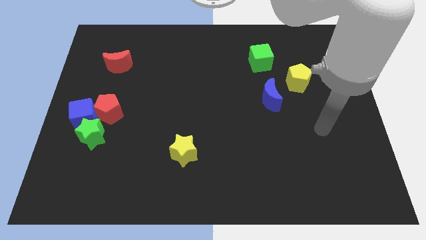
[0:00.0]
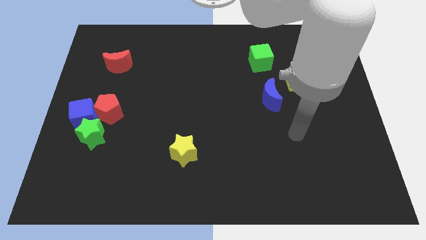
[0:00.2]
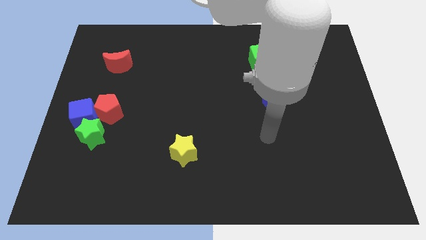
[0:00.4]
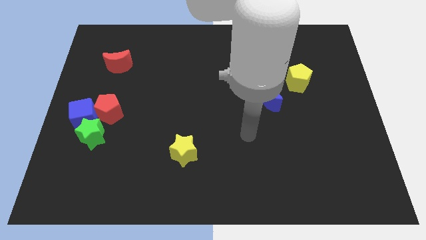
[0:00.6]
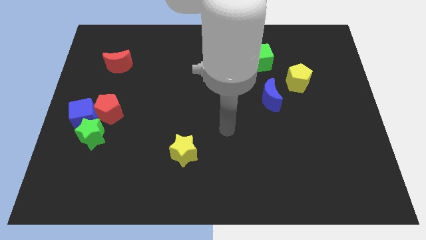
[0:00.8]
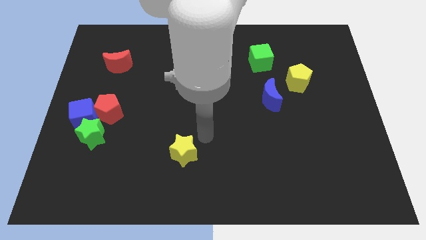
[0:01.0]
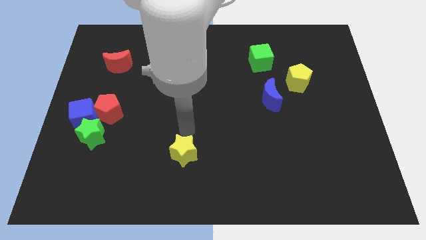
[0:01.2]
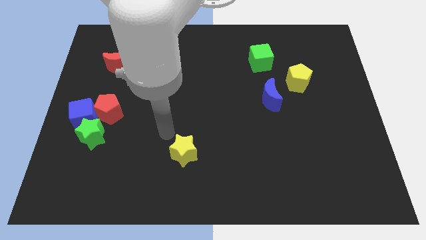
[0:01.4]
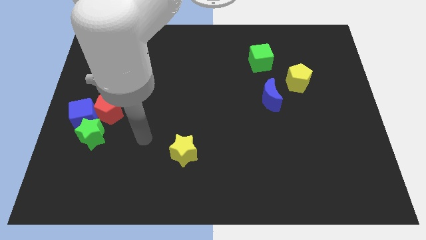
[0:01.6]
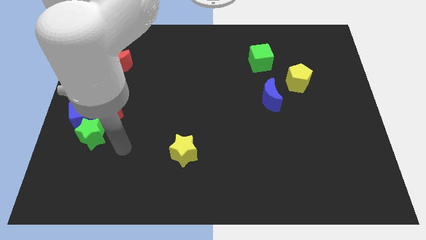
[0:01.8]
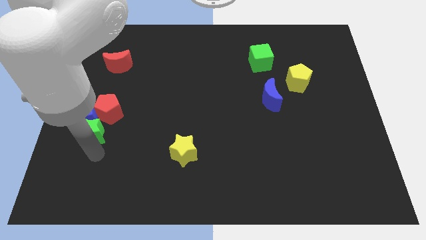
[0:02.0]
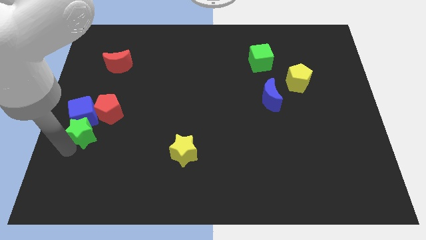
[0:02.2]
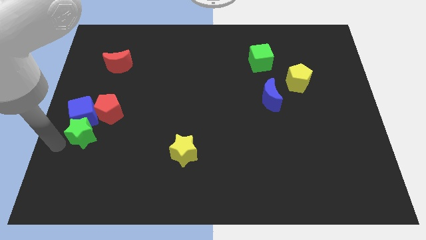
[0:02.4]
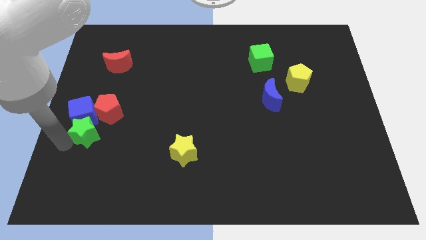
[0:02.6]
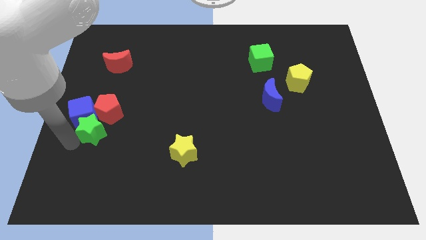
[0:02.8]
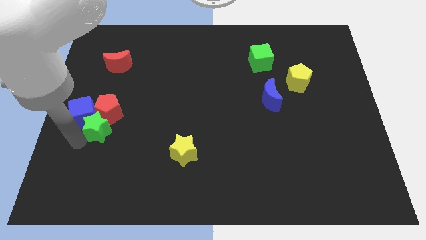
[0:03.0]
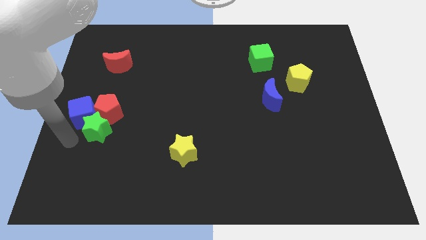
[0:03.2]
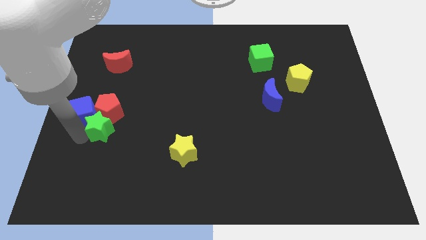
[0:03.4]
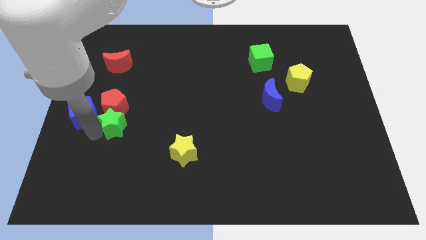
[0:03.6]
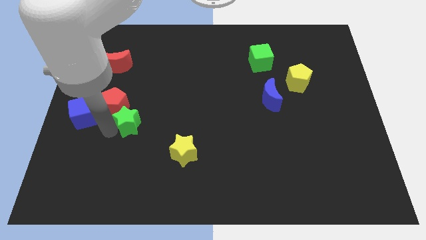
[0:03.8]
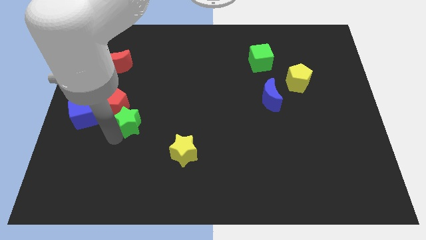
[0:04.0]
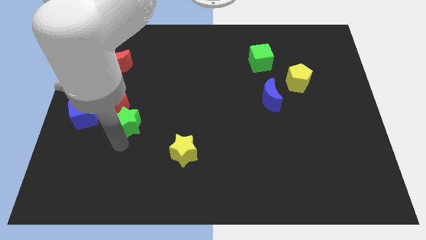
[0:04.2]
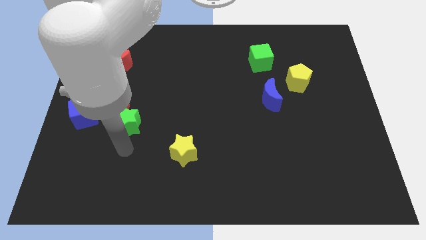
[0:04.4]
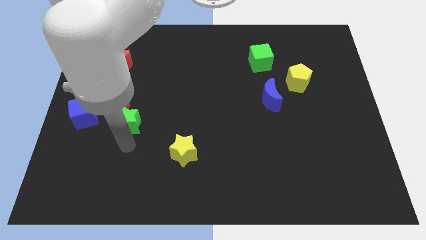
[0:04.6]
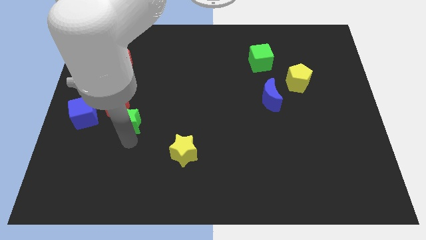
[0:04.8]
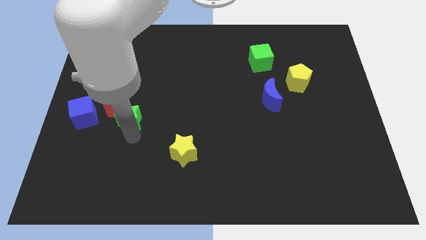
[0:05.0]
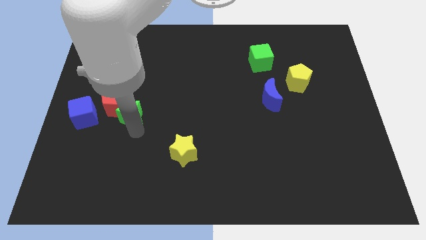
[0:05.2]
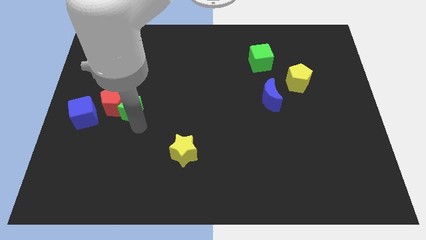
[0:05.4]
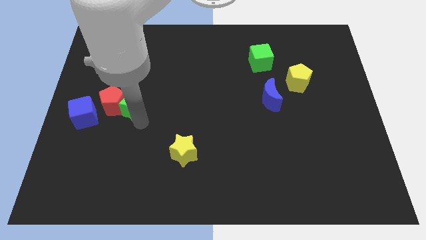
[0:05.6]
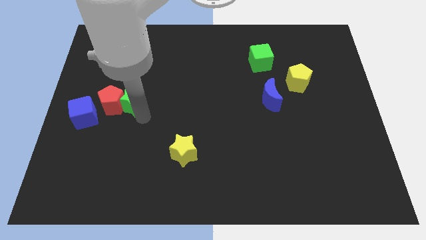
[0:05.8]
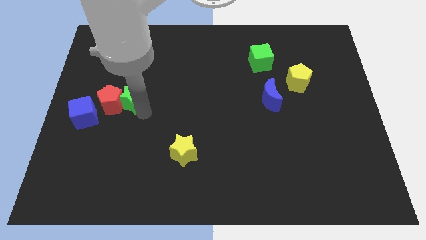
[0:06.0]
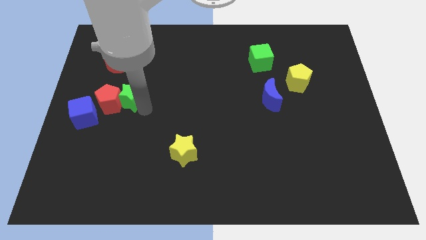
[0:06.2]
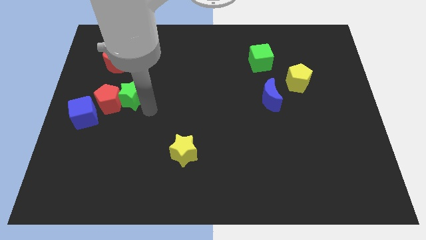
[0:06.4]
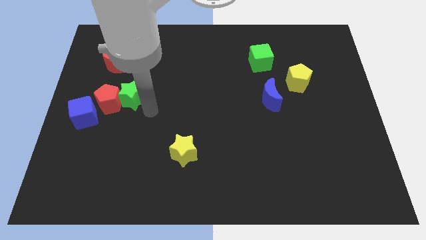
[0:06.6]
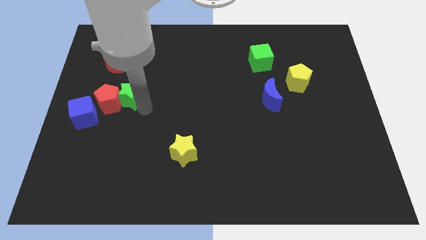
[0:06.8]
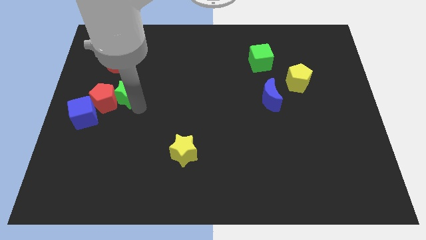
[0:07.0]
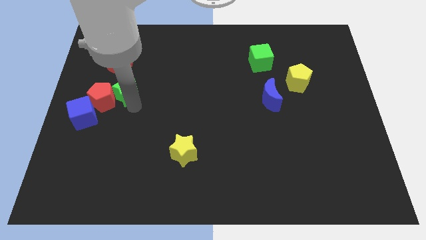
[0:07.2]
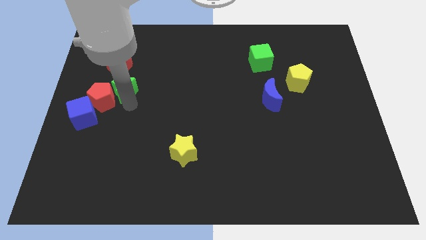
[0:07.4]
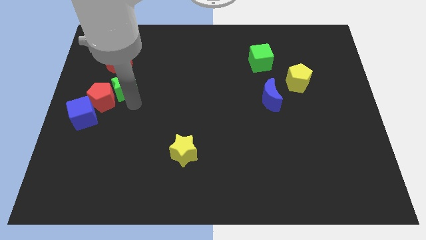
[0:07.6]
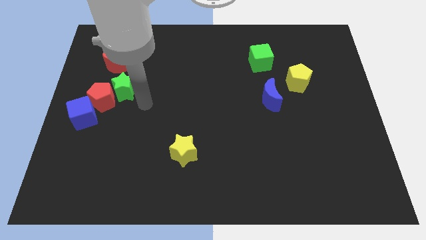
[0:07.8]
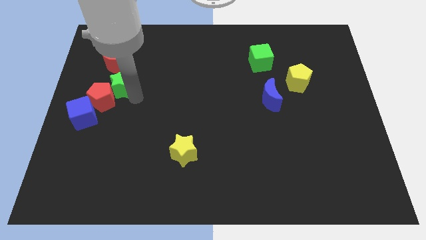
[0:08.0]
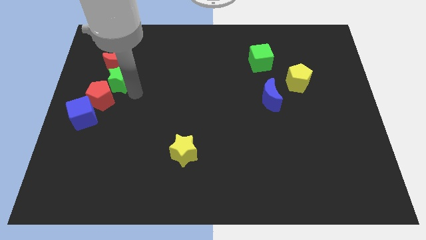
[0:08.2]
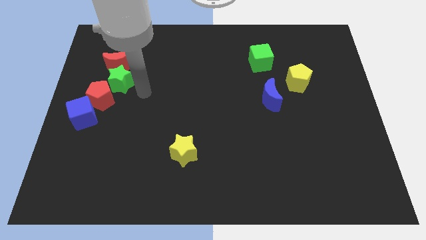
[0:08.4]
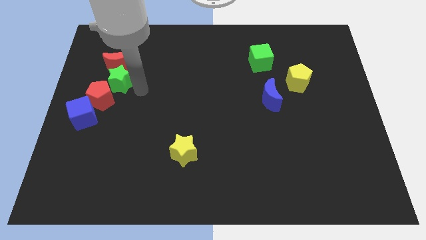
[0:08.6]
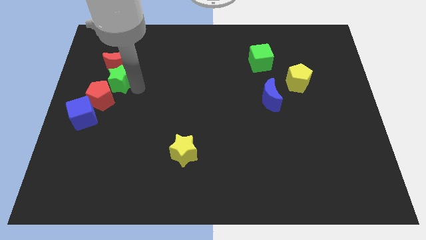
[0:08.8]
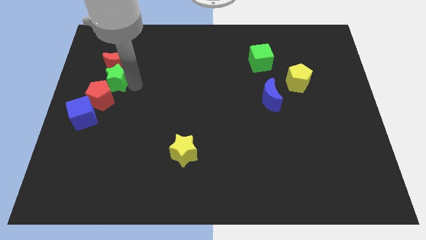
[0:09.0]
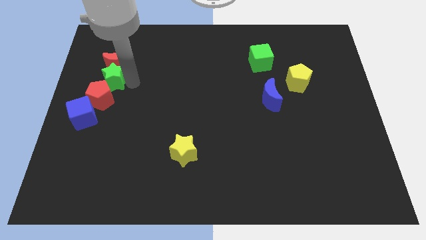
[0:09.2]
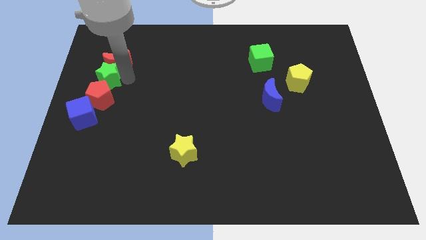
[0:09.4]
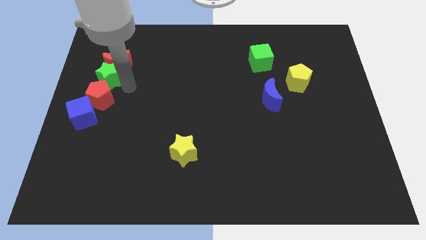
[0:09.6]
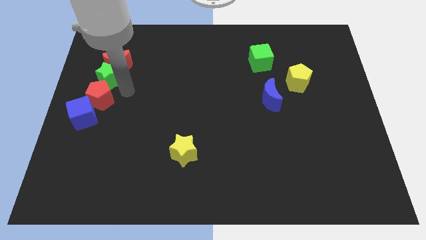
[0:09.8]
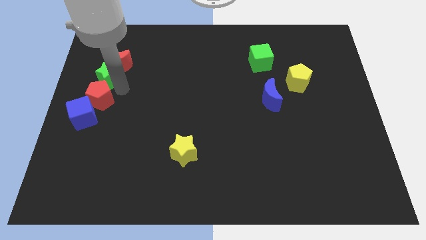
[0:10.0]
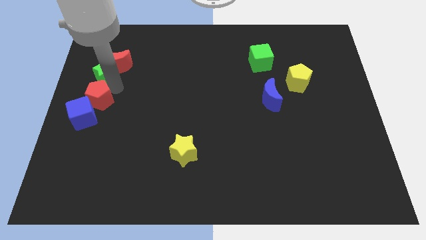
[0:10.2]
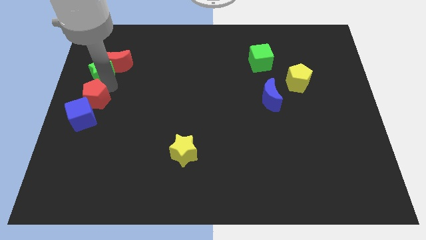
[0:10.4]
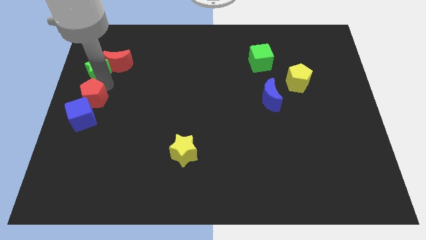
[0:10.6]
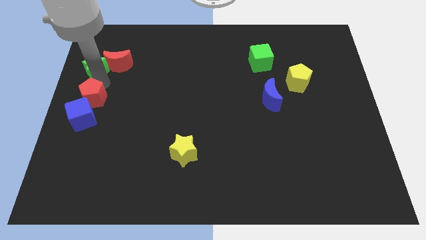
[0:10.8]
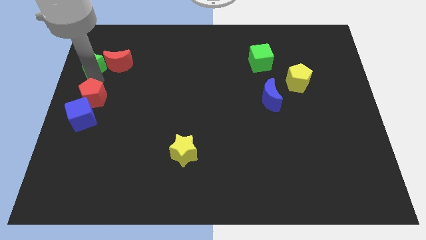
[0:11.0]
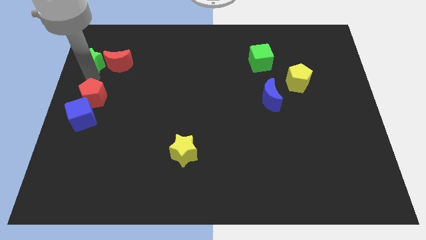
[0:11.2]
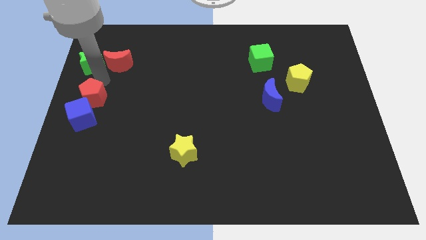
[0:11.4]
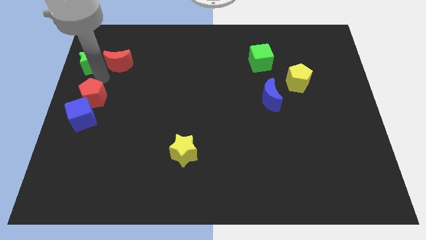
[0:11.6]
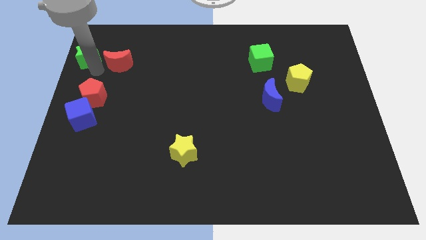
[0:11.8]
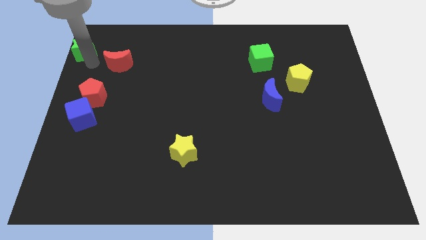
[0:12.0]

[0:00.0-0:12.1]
move the green star to the top left corner

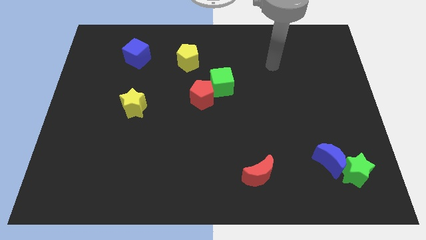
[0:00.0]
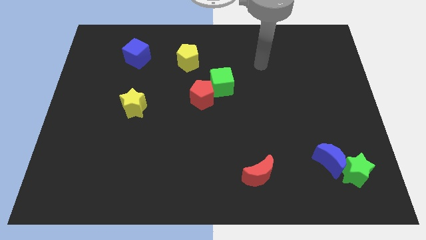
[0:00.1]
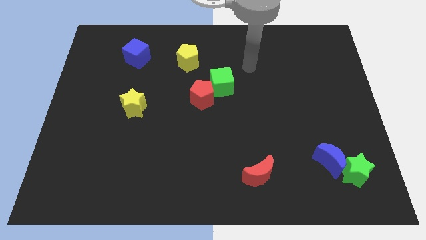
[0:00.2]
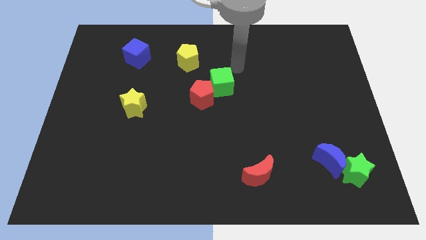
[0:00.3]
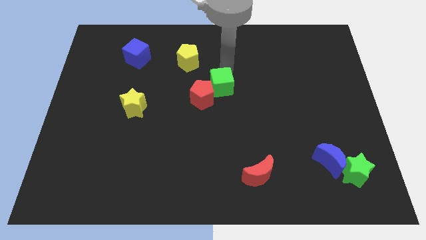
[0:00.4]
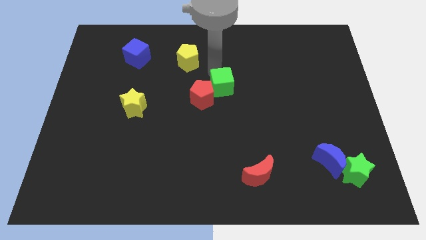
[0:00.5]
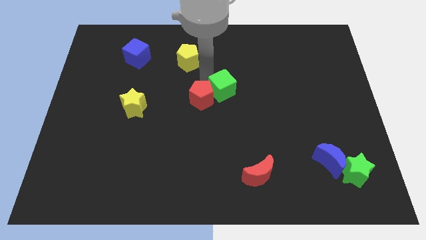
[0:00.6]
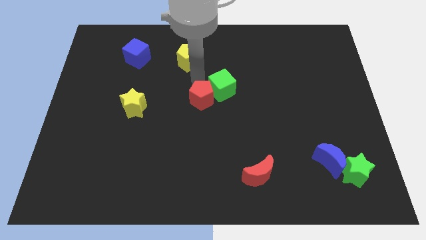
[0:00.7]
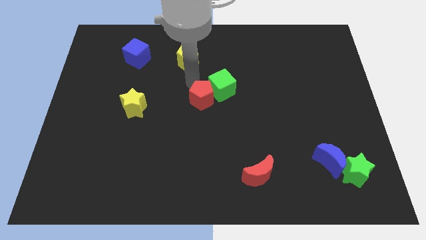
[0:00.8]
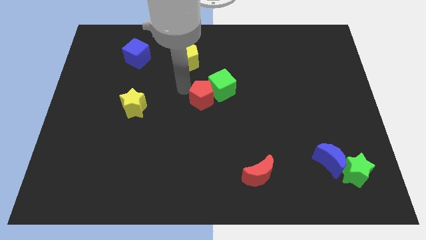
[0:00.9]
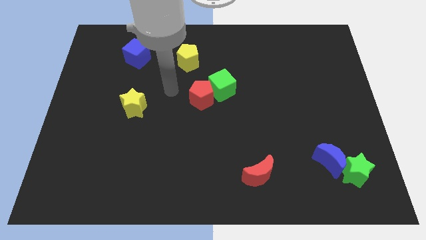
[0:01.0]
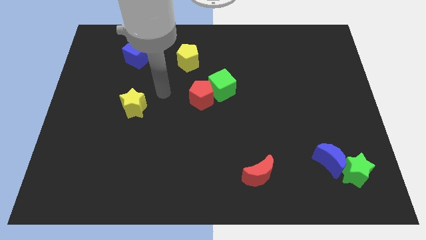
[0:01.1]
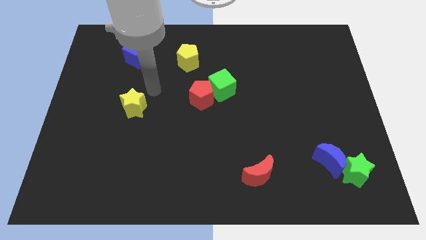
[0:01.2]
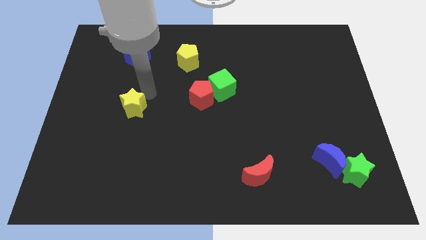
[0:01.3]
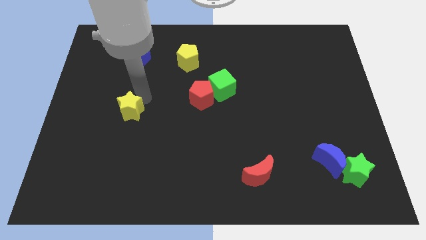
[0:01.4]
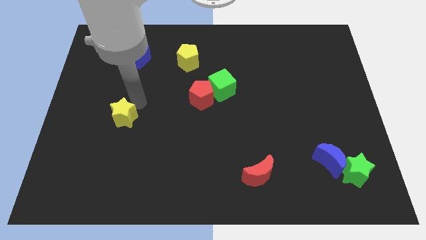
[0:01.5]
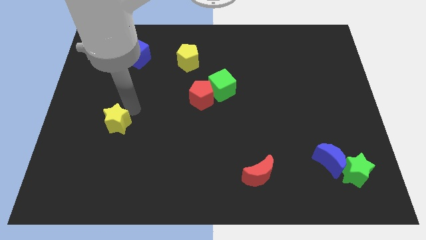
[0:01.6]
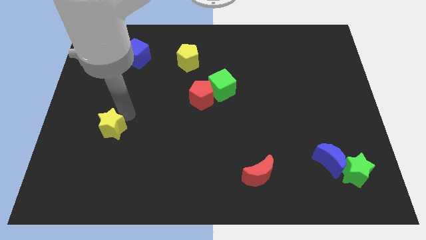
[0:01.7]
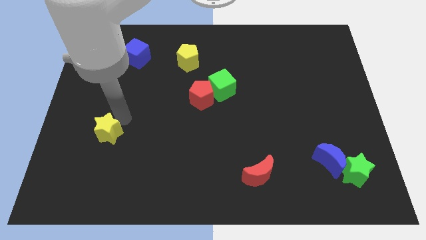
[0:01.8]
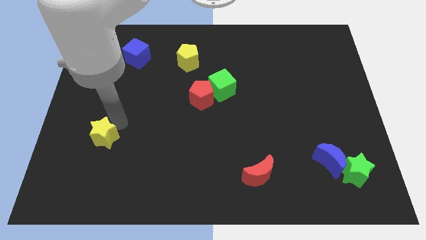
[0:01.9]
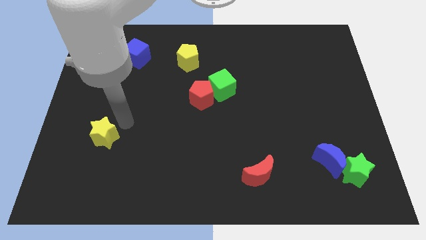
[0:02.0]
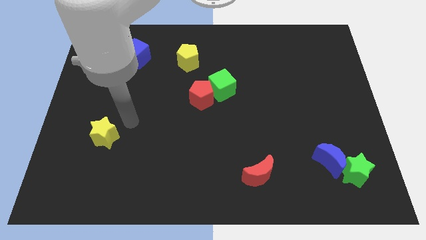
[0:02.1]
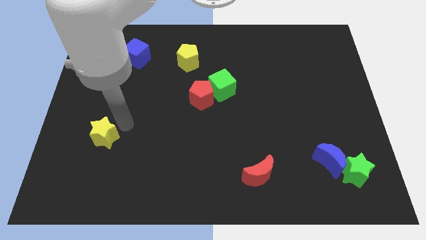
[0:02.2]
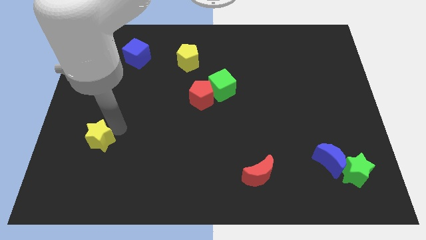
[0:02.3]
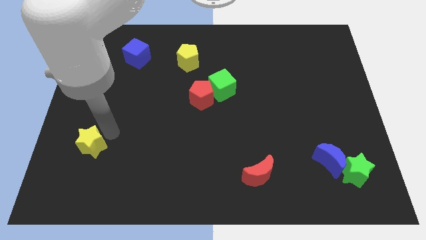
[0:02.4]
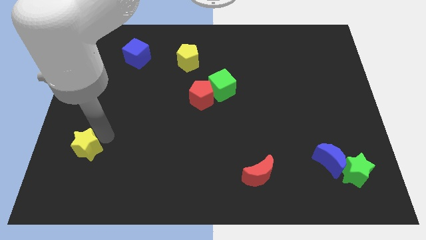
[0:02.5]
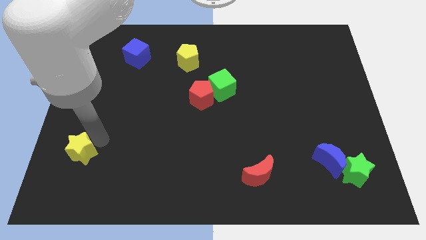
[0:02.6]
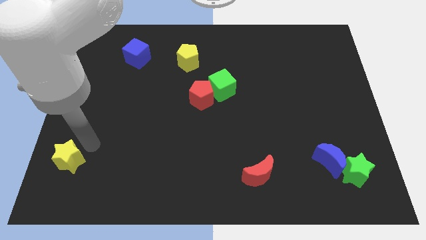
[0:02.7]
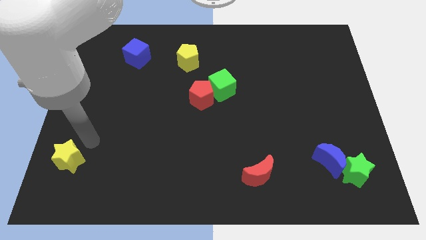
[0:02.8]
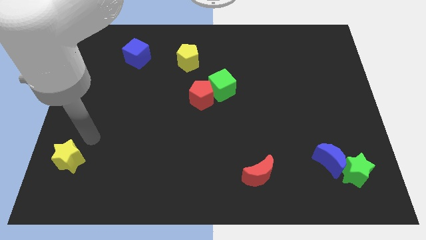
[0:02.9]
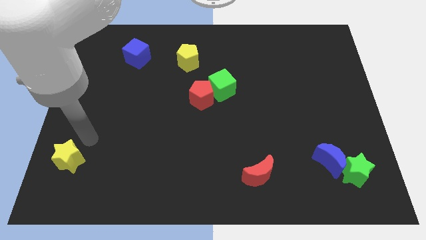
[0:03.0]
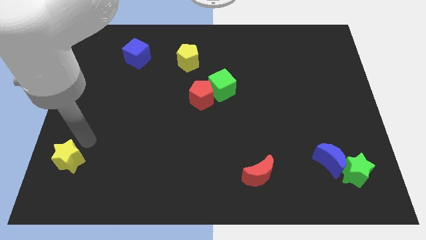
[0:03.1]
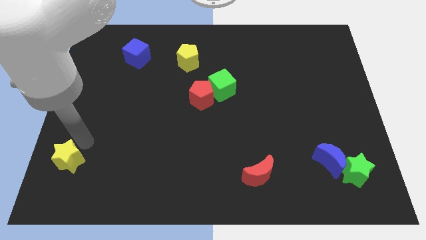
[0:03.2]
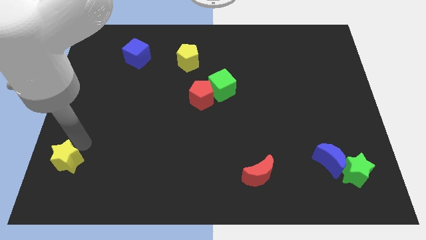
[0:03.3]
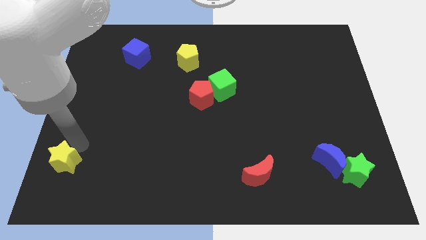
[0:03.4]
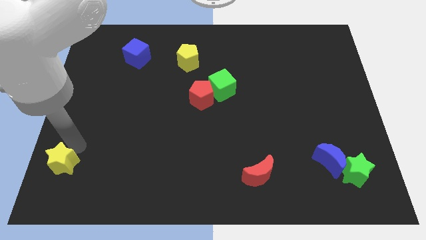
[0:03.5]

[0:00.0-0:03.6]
move the yellow star to the bottom left corner
